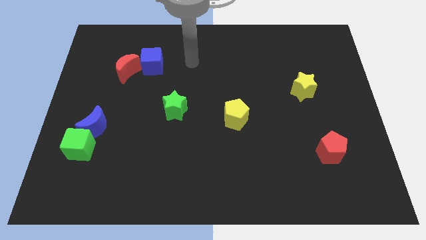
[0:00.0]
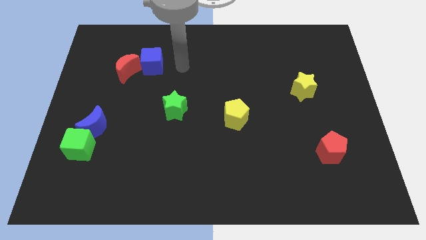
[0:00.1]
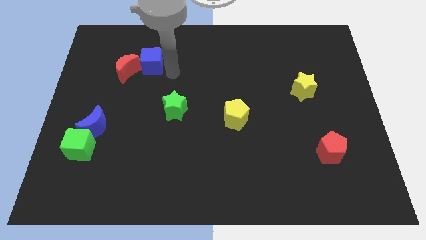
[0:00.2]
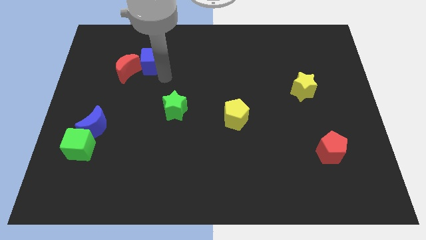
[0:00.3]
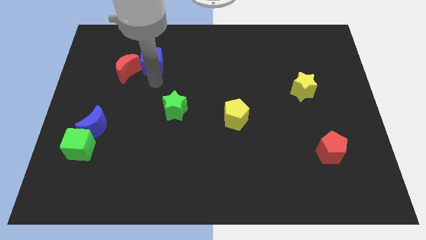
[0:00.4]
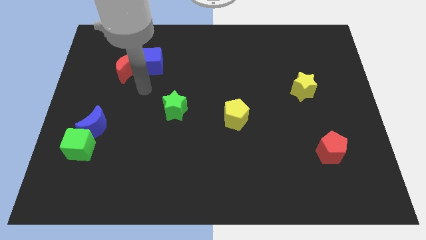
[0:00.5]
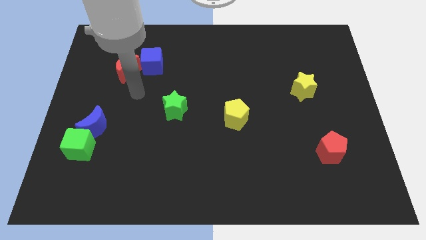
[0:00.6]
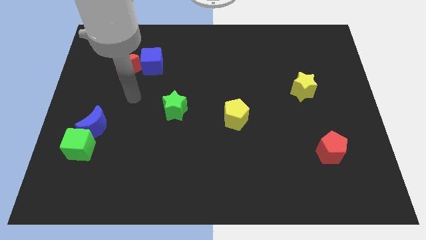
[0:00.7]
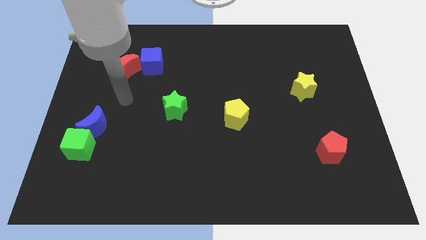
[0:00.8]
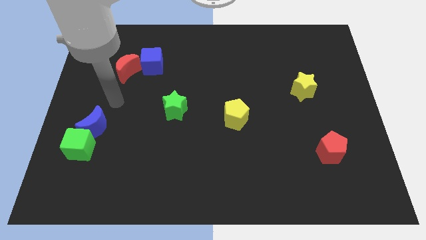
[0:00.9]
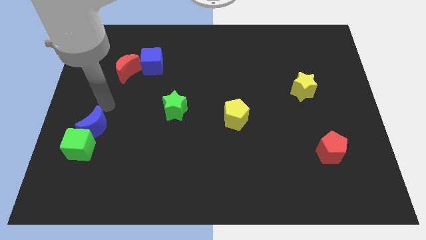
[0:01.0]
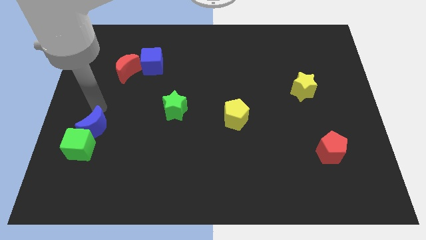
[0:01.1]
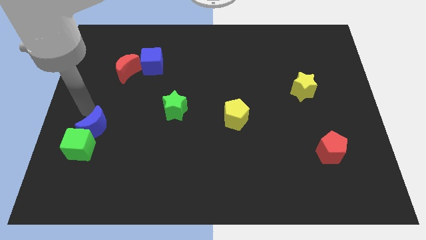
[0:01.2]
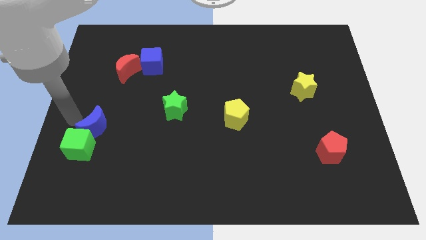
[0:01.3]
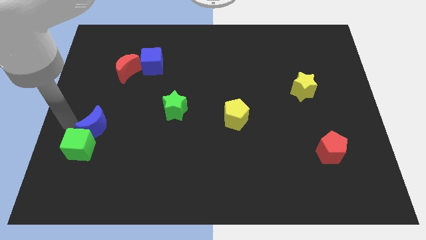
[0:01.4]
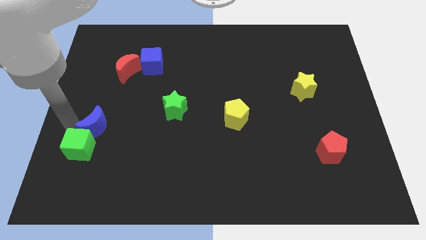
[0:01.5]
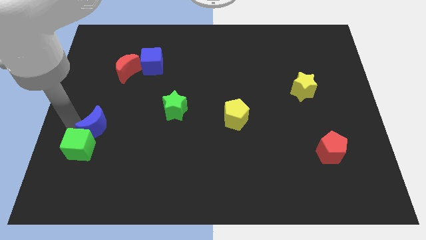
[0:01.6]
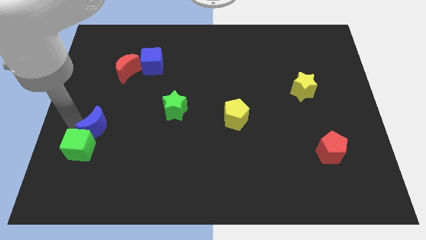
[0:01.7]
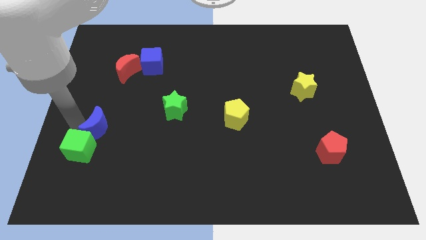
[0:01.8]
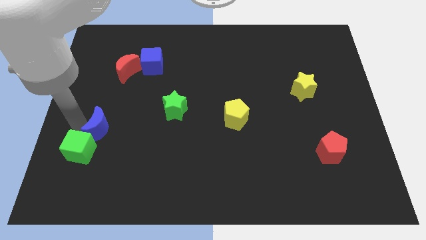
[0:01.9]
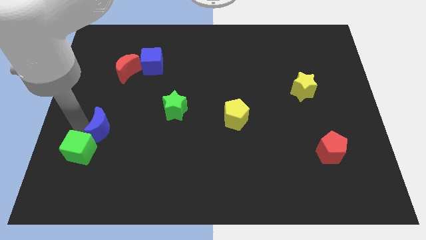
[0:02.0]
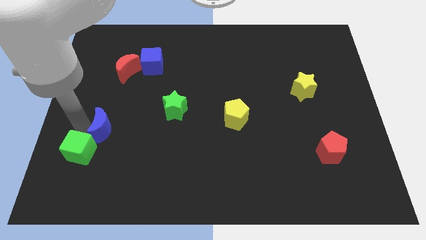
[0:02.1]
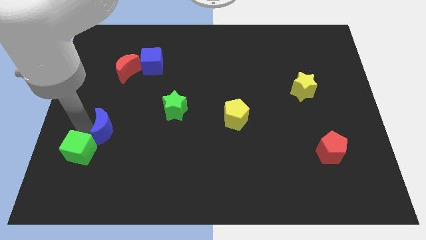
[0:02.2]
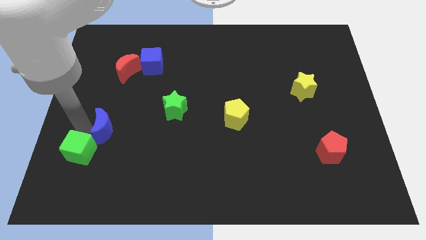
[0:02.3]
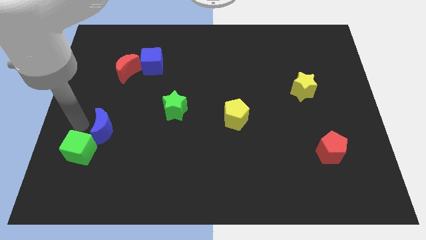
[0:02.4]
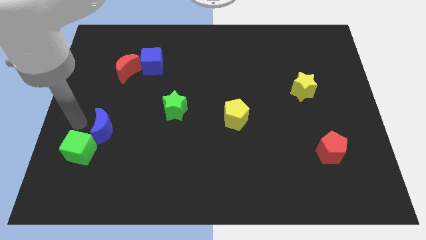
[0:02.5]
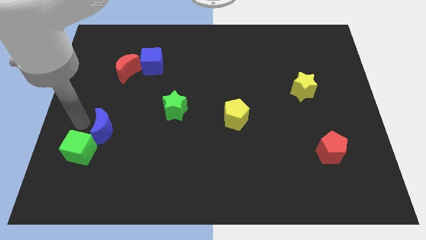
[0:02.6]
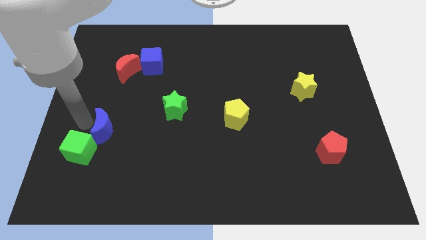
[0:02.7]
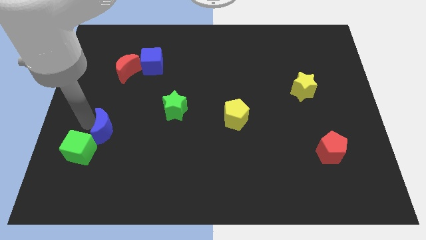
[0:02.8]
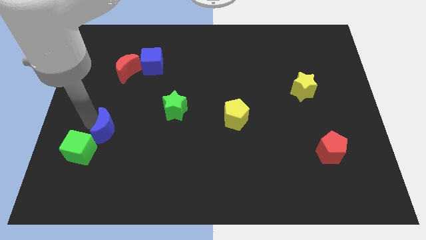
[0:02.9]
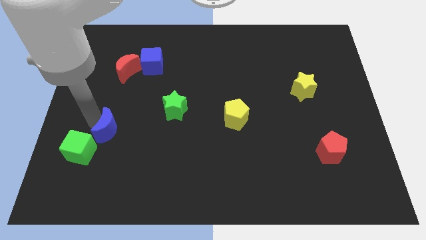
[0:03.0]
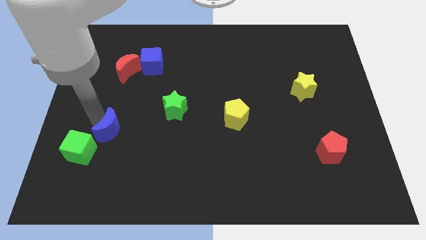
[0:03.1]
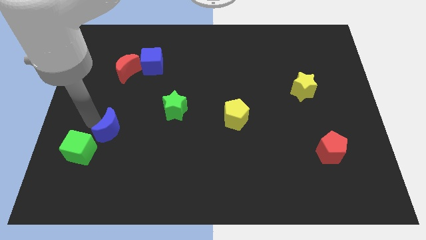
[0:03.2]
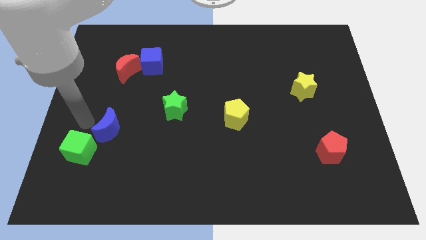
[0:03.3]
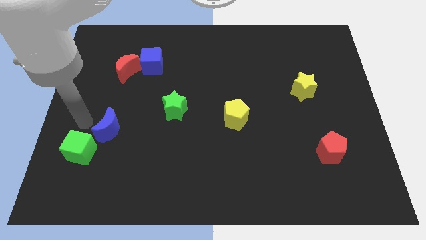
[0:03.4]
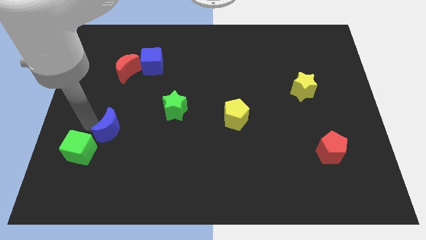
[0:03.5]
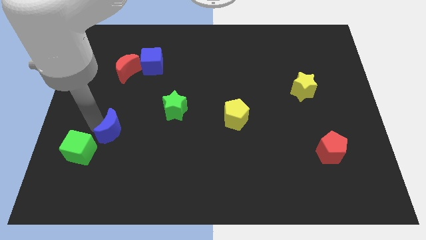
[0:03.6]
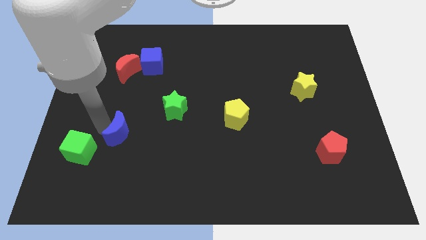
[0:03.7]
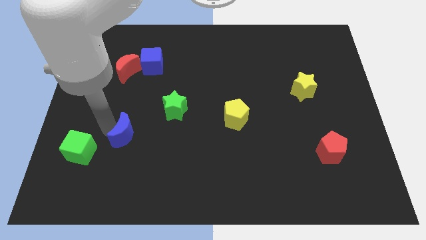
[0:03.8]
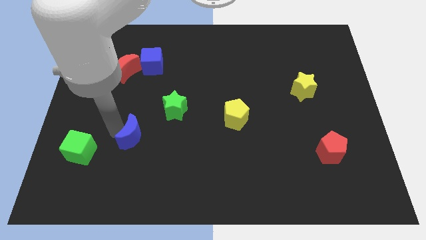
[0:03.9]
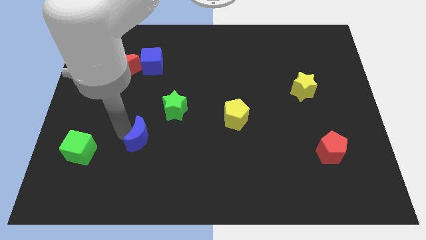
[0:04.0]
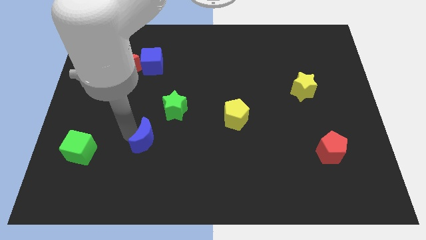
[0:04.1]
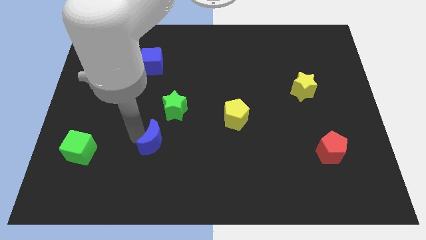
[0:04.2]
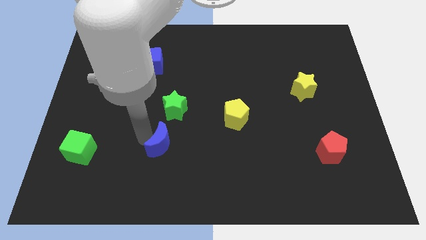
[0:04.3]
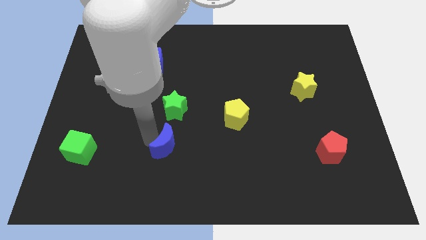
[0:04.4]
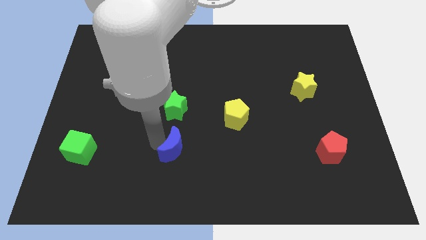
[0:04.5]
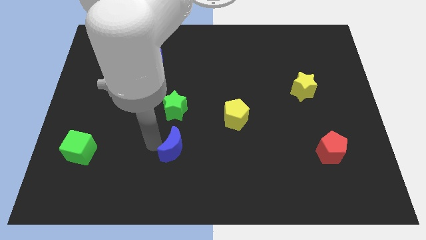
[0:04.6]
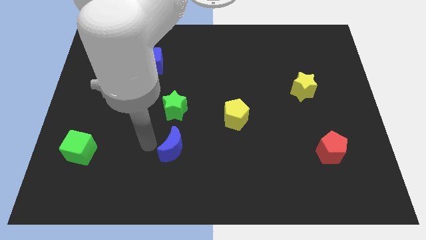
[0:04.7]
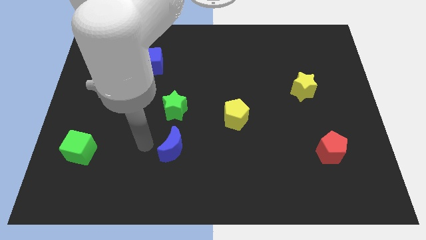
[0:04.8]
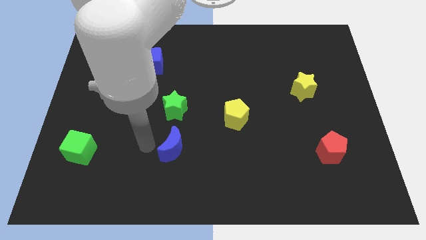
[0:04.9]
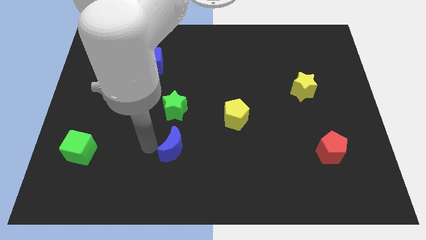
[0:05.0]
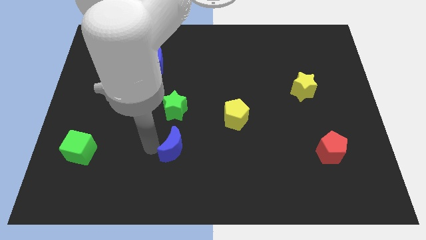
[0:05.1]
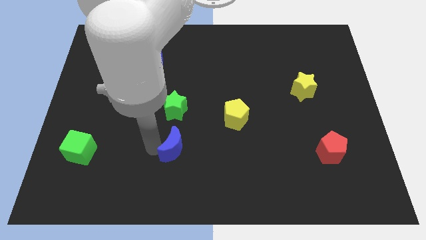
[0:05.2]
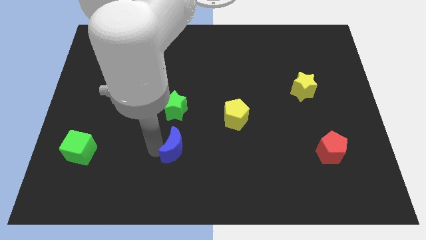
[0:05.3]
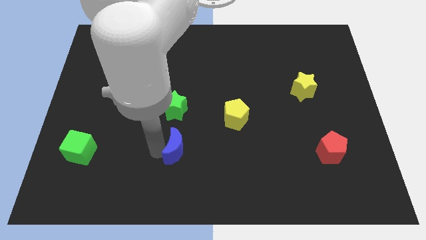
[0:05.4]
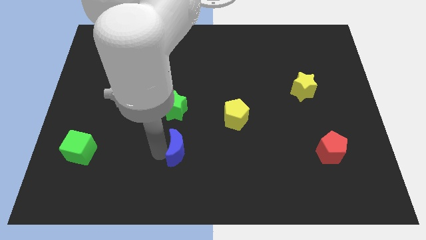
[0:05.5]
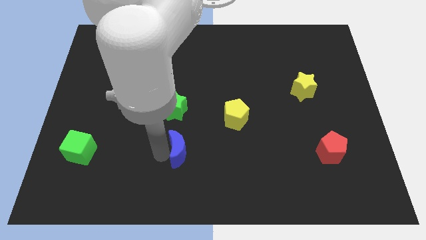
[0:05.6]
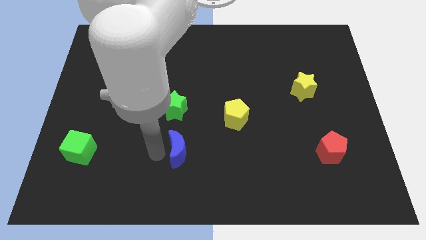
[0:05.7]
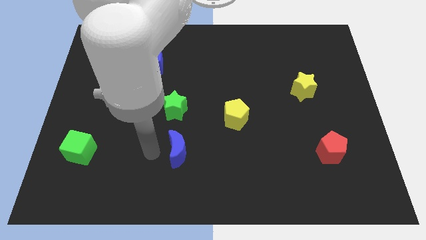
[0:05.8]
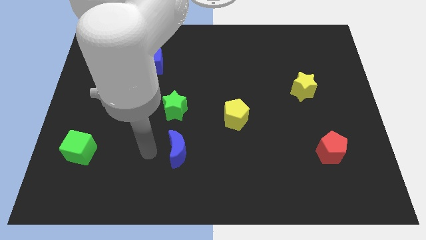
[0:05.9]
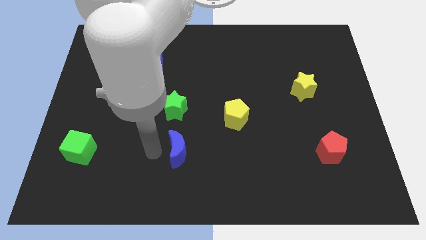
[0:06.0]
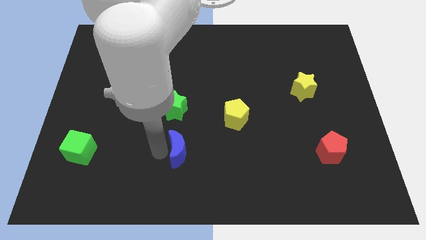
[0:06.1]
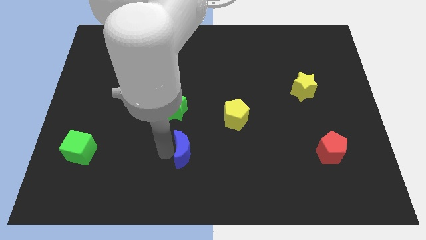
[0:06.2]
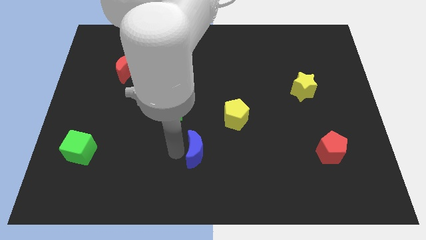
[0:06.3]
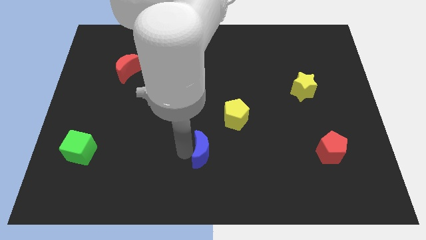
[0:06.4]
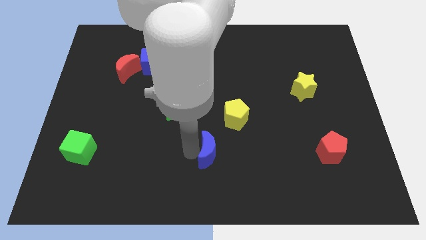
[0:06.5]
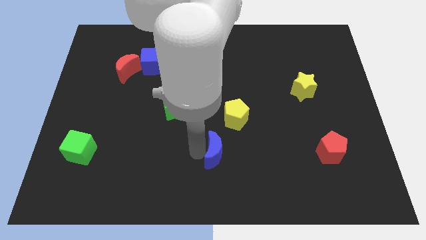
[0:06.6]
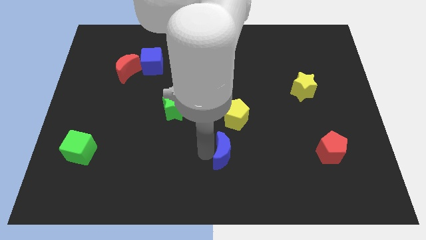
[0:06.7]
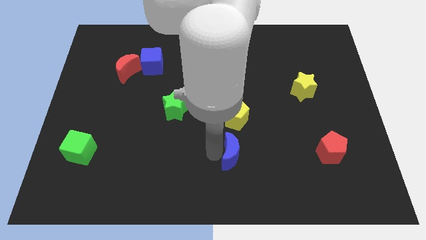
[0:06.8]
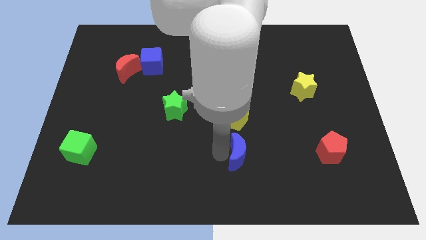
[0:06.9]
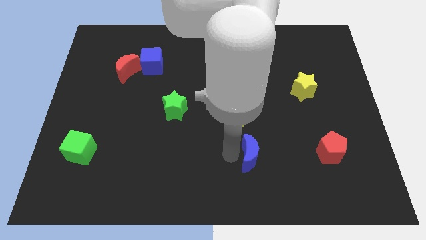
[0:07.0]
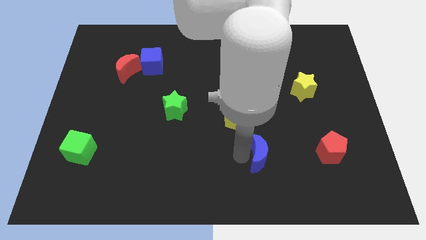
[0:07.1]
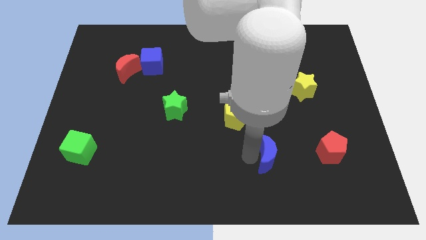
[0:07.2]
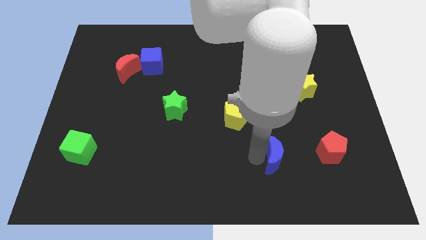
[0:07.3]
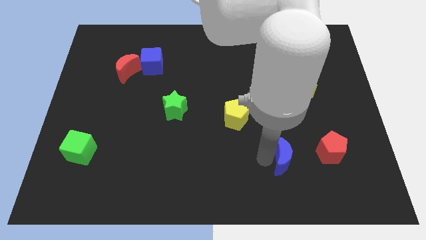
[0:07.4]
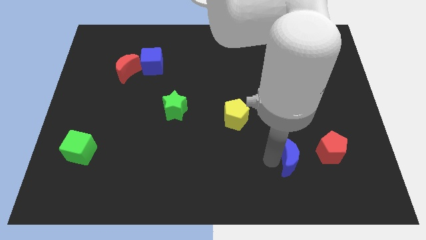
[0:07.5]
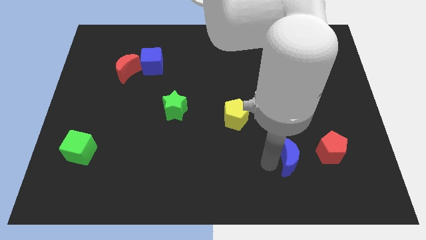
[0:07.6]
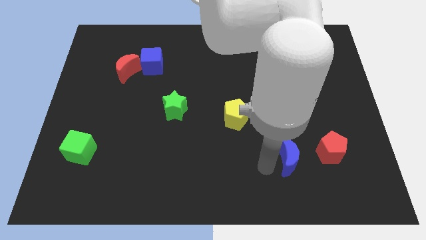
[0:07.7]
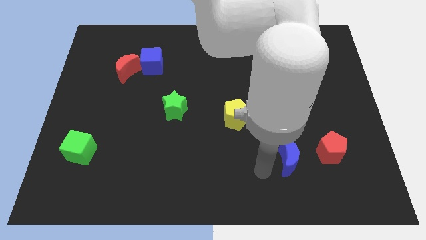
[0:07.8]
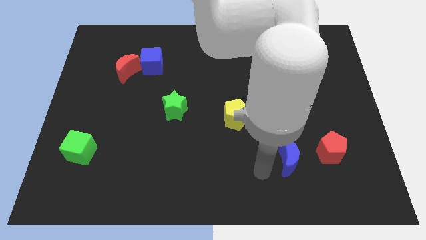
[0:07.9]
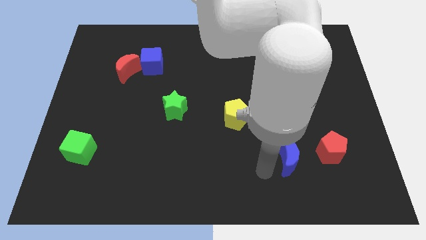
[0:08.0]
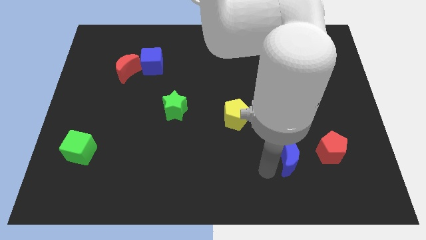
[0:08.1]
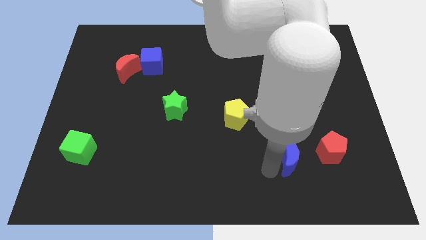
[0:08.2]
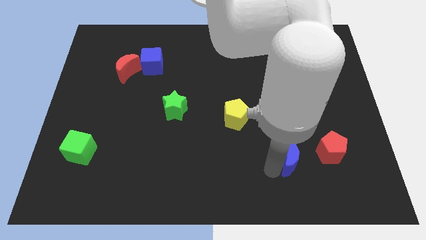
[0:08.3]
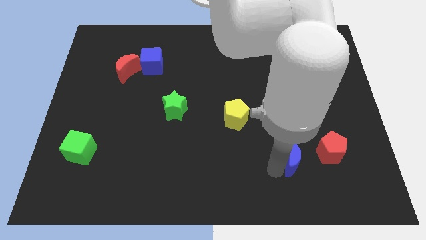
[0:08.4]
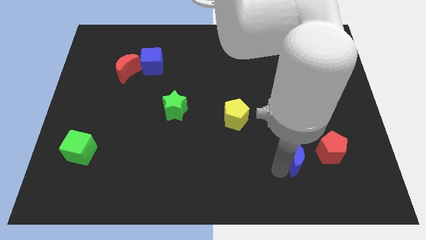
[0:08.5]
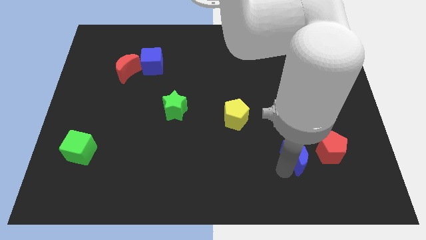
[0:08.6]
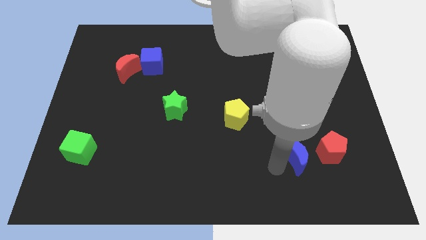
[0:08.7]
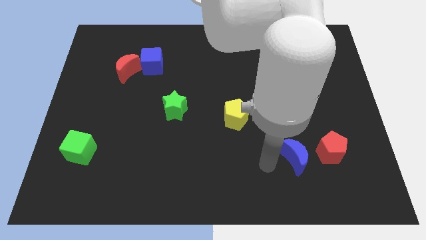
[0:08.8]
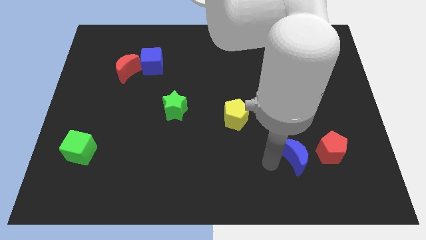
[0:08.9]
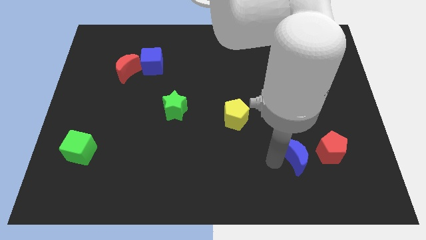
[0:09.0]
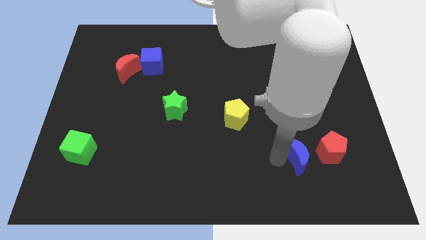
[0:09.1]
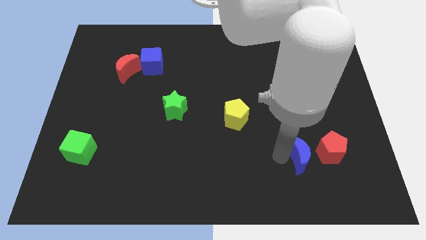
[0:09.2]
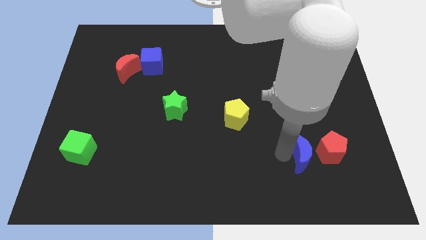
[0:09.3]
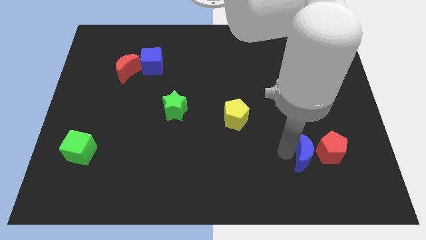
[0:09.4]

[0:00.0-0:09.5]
put the blue moon close to the red pentagon
